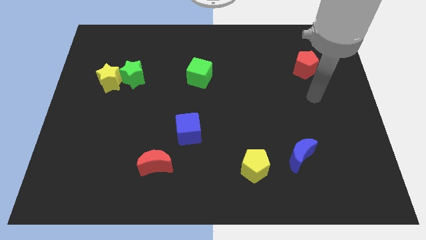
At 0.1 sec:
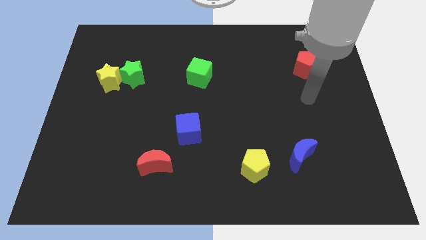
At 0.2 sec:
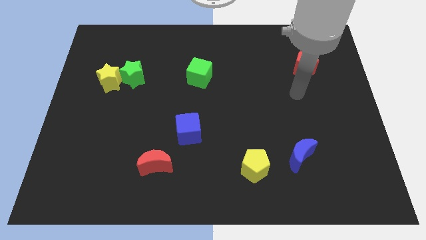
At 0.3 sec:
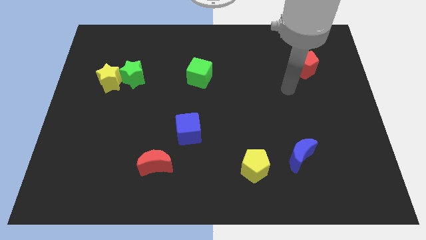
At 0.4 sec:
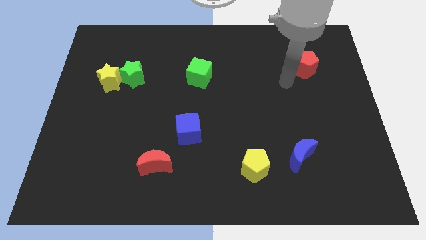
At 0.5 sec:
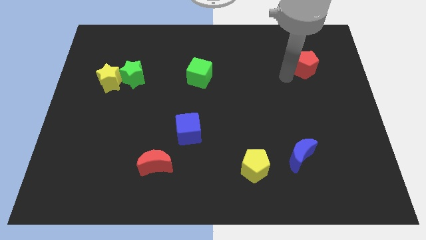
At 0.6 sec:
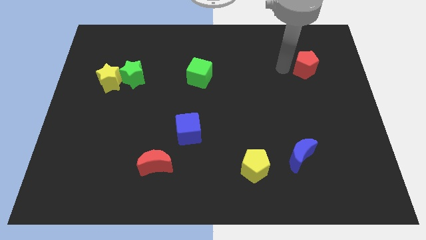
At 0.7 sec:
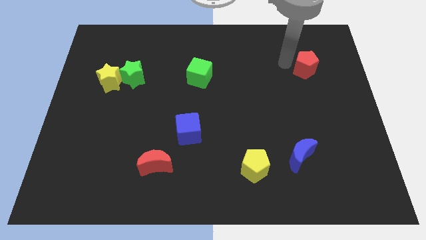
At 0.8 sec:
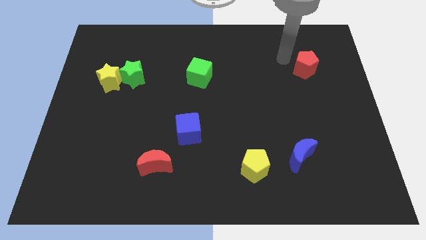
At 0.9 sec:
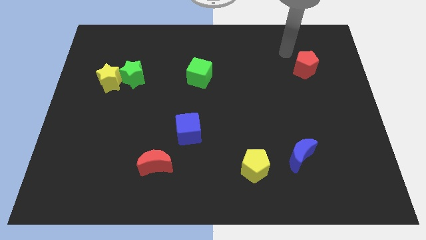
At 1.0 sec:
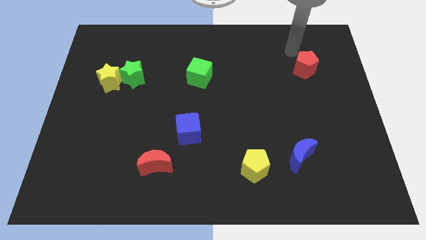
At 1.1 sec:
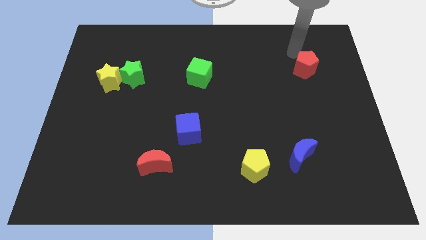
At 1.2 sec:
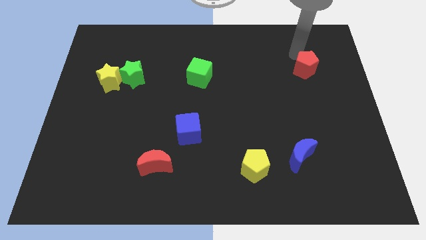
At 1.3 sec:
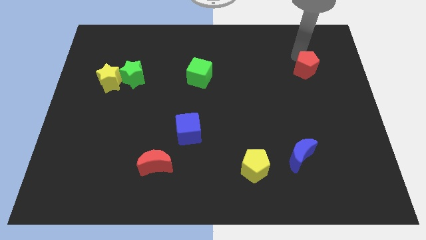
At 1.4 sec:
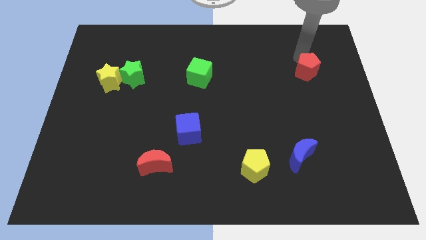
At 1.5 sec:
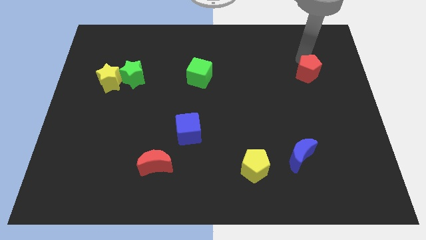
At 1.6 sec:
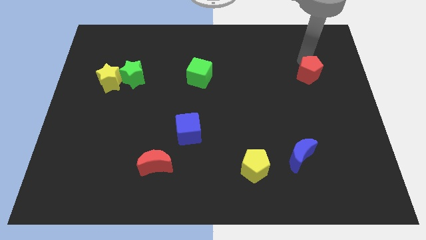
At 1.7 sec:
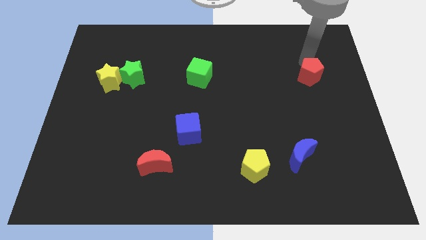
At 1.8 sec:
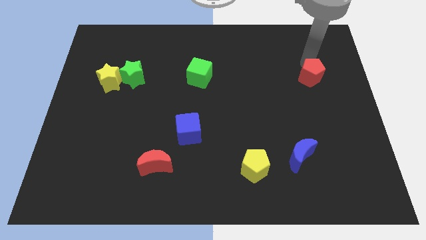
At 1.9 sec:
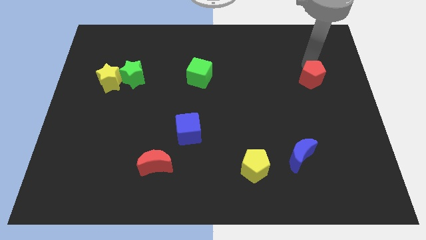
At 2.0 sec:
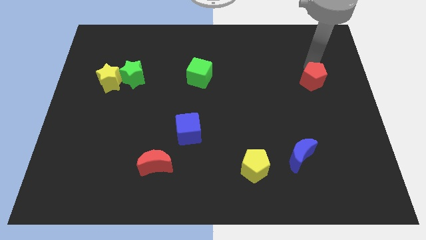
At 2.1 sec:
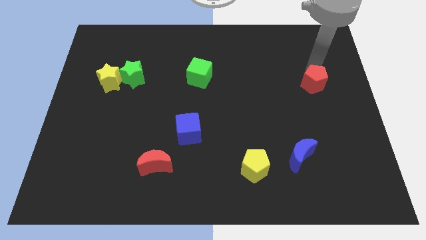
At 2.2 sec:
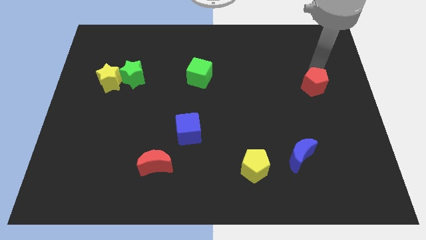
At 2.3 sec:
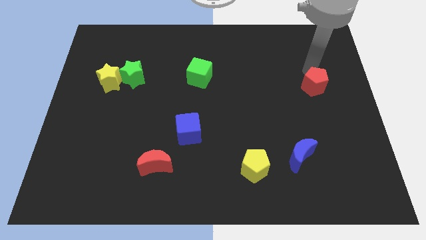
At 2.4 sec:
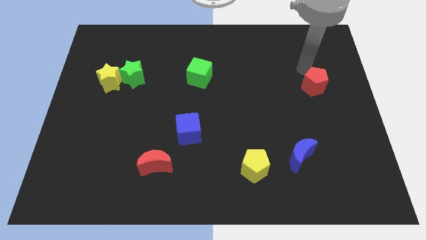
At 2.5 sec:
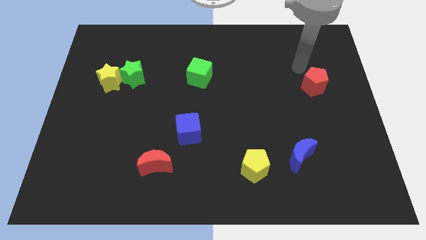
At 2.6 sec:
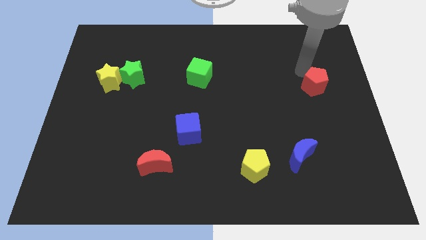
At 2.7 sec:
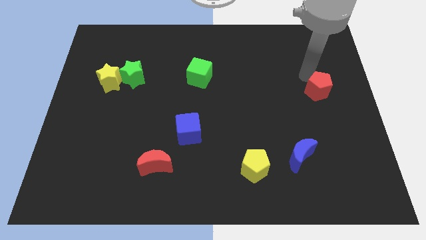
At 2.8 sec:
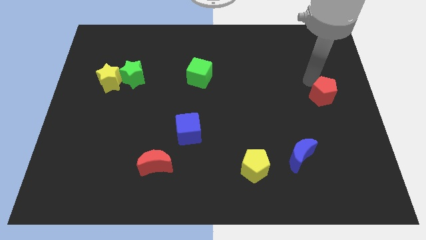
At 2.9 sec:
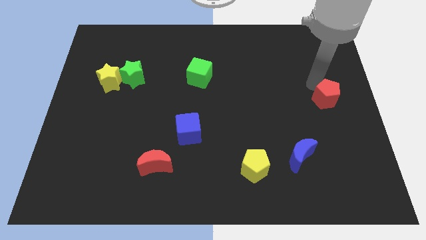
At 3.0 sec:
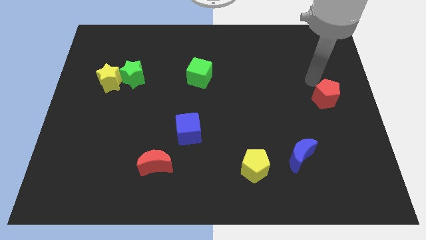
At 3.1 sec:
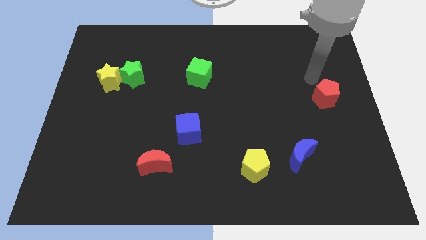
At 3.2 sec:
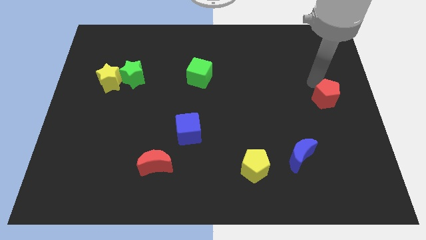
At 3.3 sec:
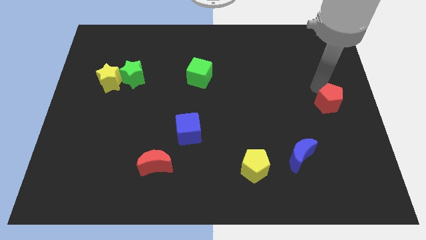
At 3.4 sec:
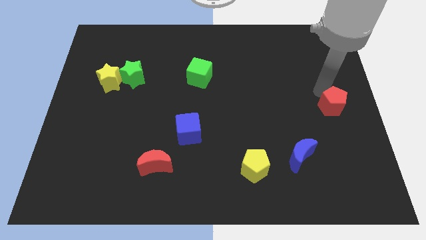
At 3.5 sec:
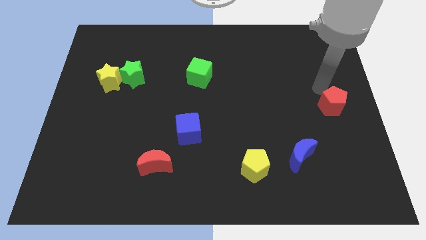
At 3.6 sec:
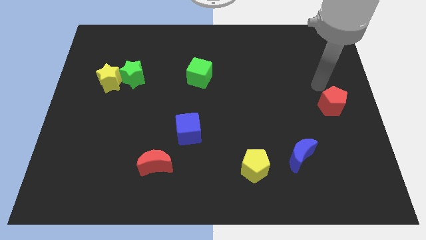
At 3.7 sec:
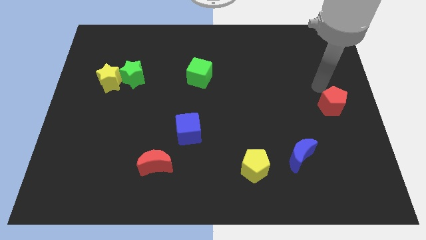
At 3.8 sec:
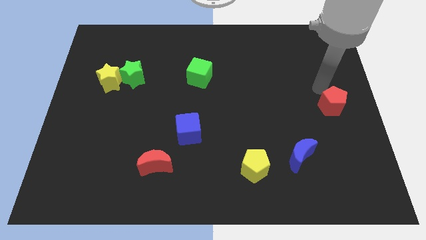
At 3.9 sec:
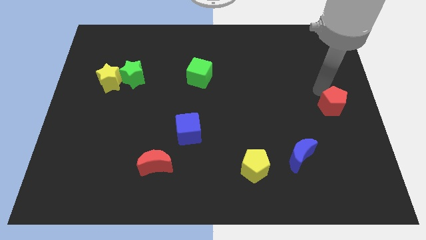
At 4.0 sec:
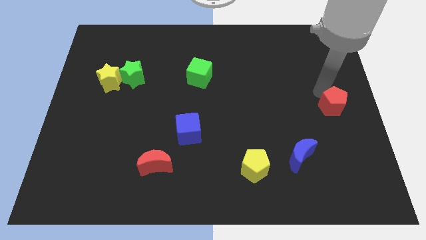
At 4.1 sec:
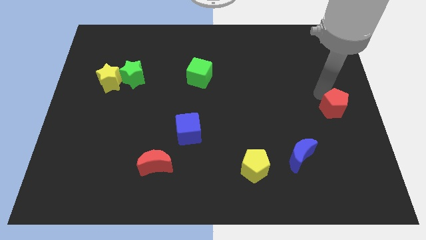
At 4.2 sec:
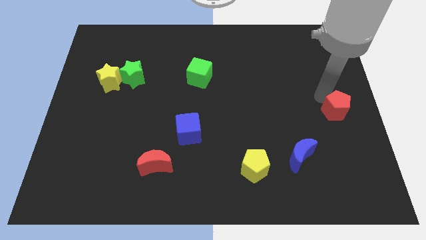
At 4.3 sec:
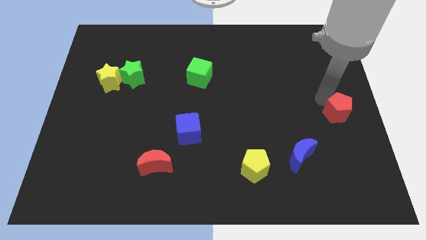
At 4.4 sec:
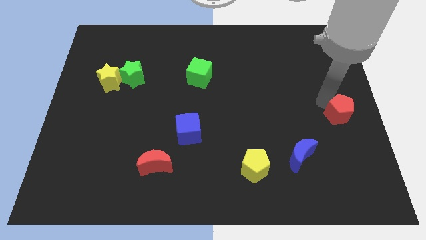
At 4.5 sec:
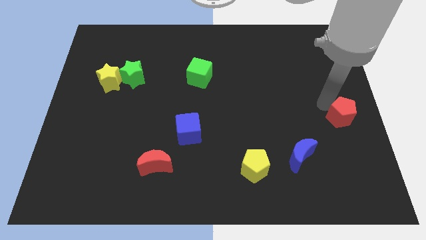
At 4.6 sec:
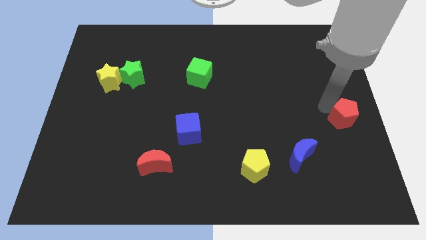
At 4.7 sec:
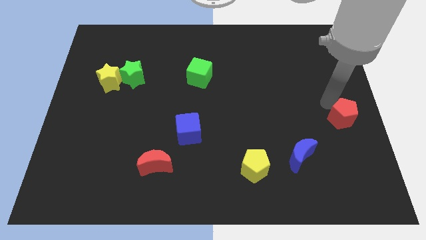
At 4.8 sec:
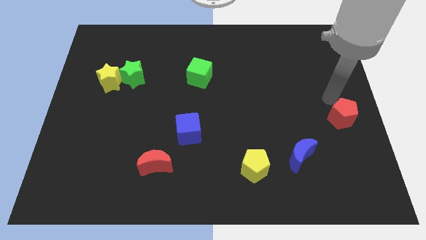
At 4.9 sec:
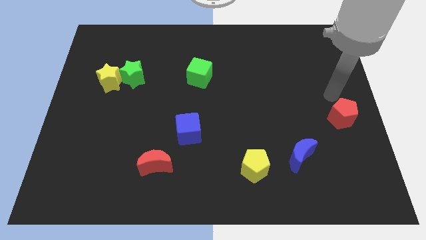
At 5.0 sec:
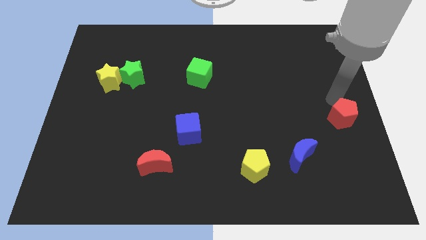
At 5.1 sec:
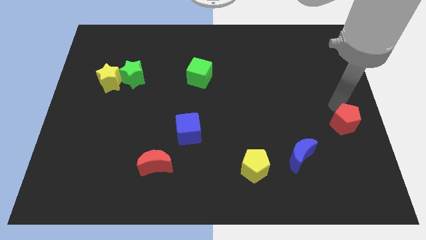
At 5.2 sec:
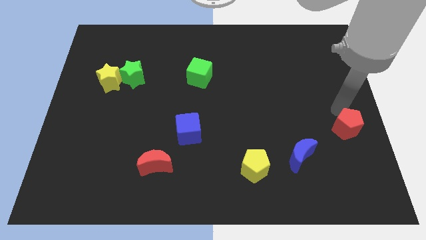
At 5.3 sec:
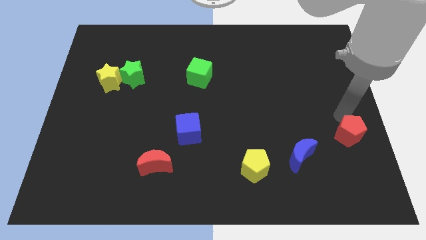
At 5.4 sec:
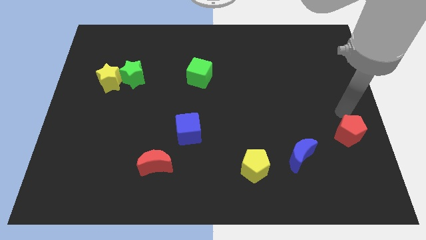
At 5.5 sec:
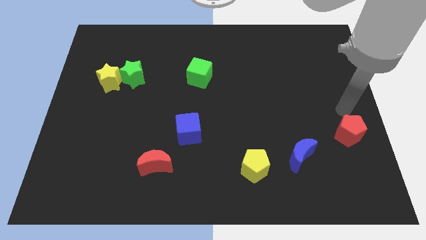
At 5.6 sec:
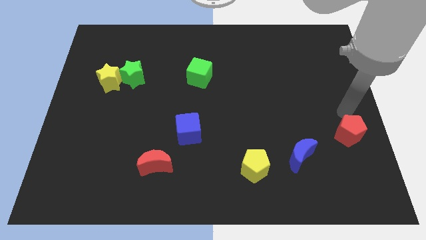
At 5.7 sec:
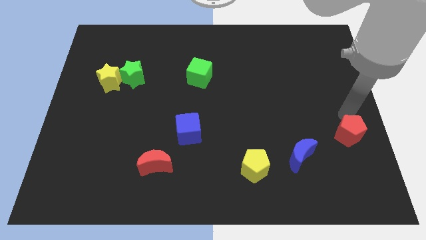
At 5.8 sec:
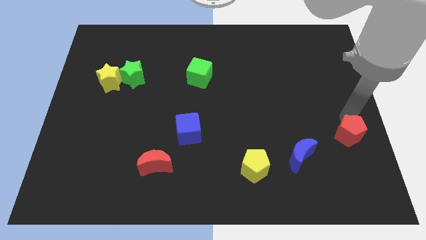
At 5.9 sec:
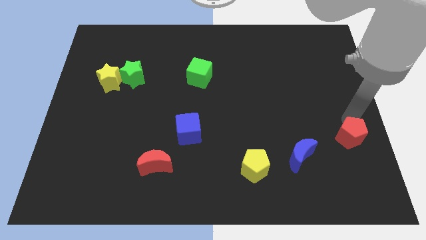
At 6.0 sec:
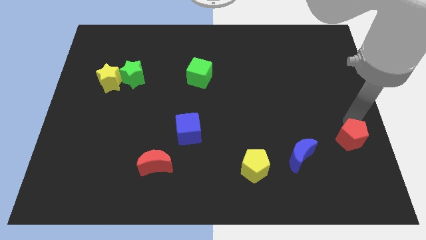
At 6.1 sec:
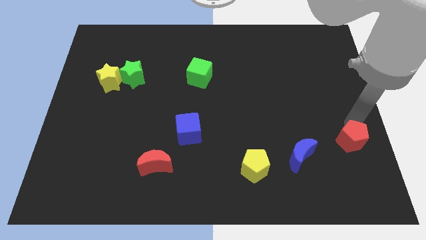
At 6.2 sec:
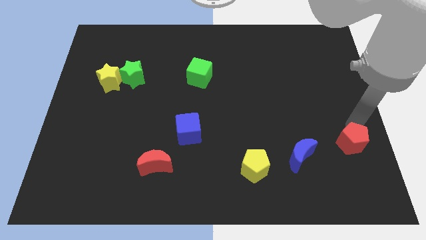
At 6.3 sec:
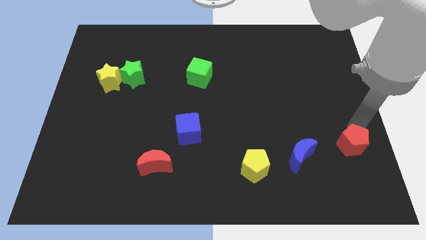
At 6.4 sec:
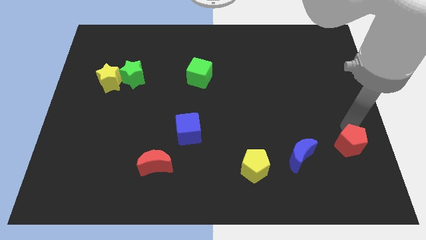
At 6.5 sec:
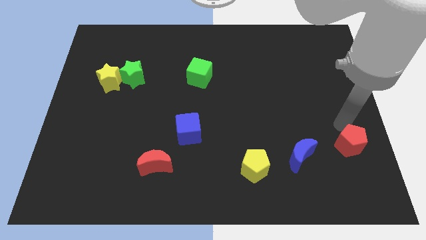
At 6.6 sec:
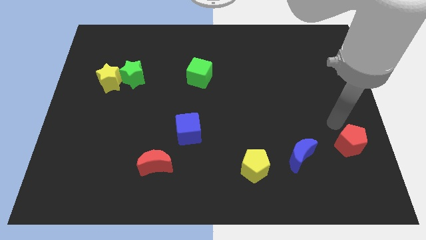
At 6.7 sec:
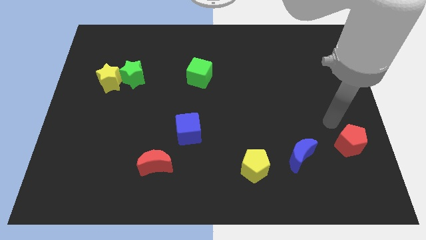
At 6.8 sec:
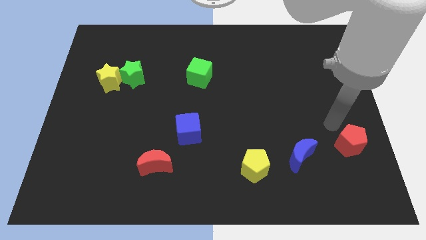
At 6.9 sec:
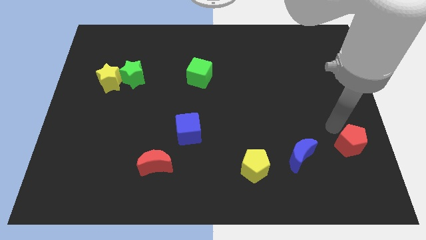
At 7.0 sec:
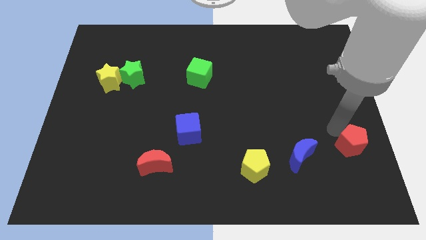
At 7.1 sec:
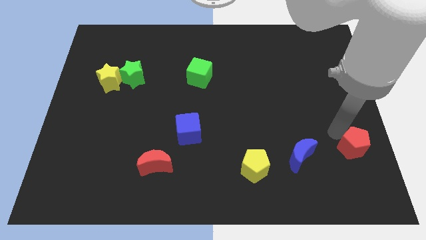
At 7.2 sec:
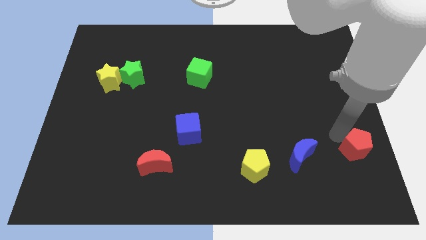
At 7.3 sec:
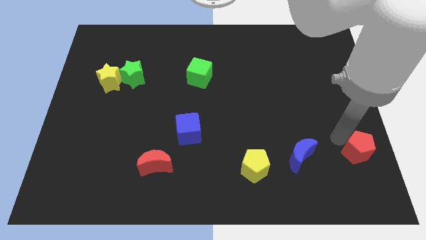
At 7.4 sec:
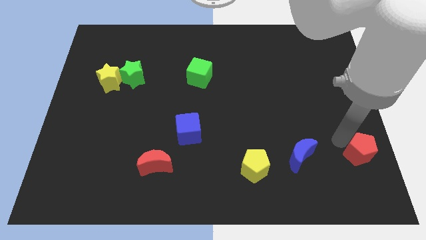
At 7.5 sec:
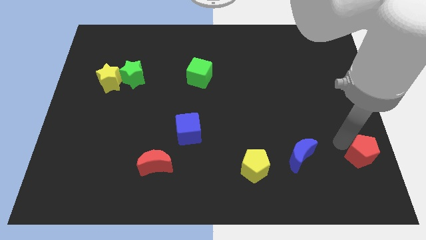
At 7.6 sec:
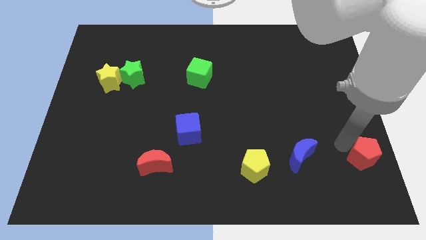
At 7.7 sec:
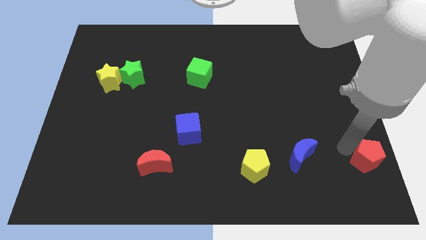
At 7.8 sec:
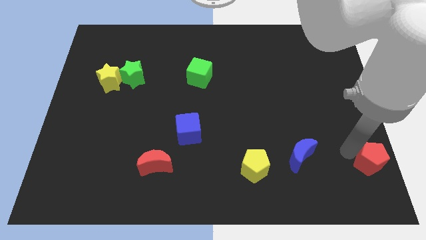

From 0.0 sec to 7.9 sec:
slide the red pentagon to the bottom right corner
